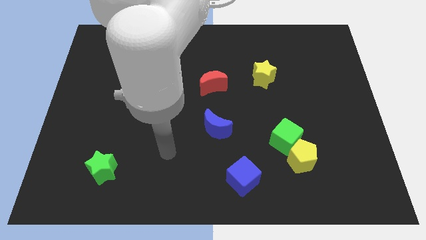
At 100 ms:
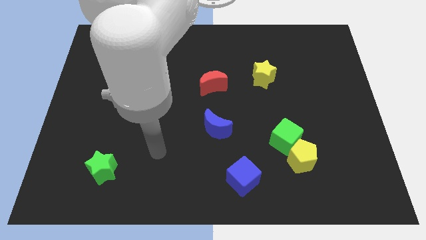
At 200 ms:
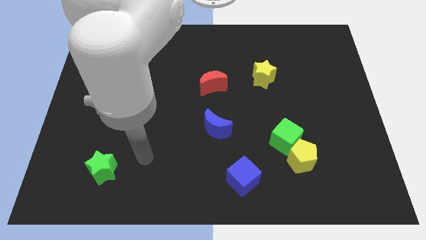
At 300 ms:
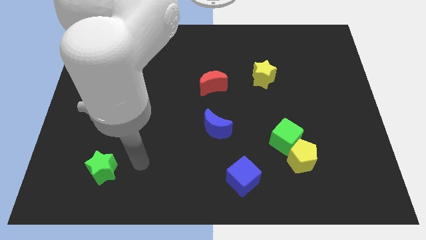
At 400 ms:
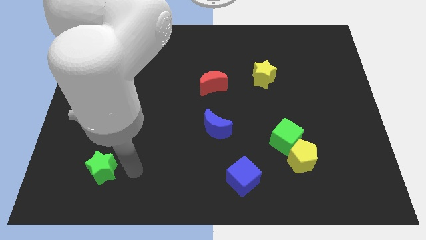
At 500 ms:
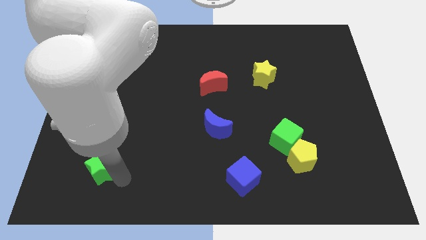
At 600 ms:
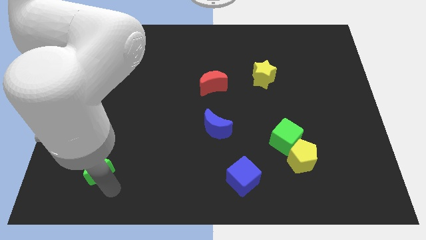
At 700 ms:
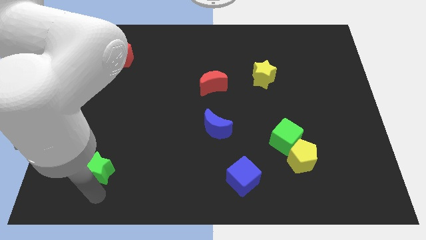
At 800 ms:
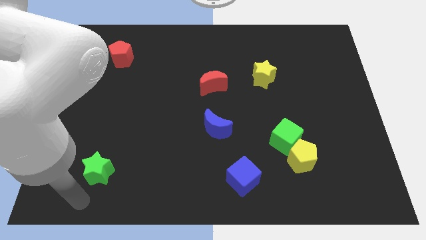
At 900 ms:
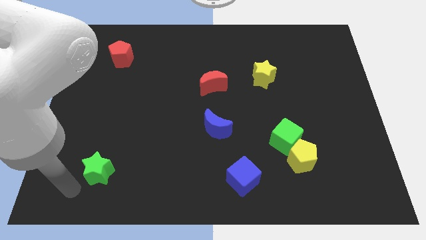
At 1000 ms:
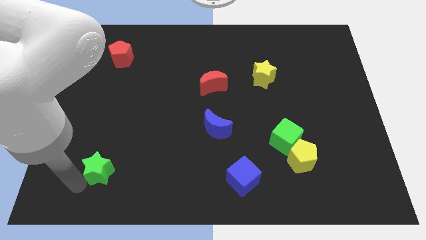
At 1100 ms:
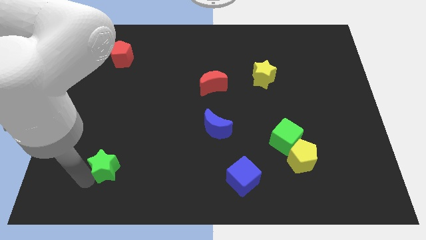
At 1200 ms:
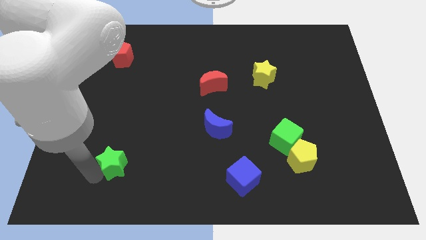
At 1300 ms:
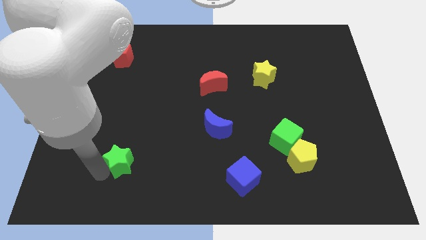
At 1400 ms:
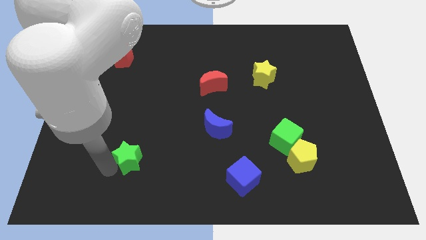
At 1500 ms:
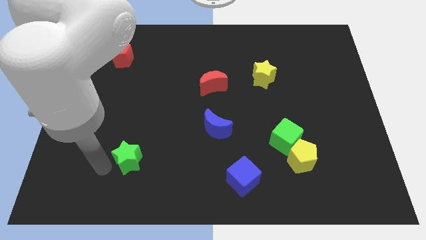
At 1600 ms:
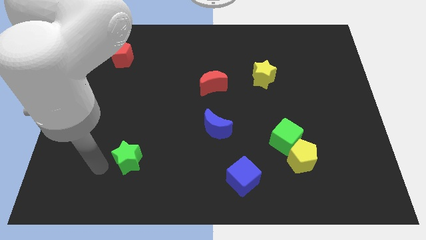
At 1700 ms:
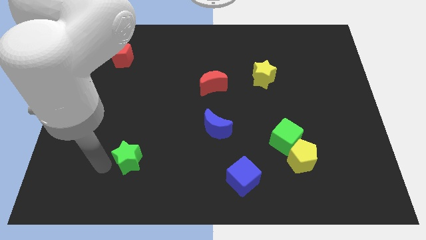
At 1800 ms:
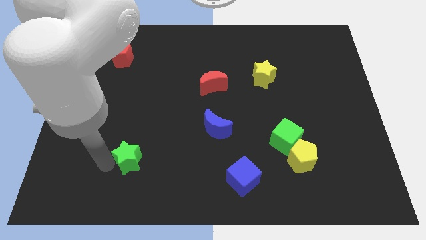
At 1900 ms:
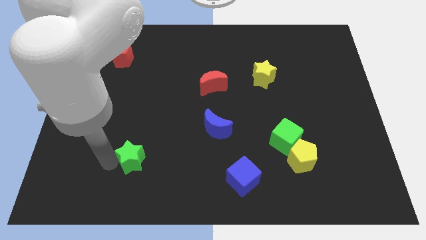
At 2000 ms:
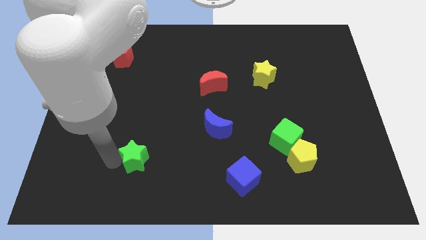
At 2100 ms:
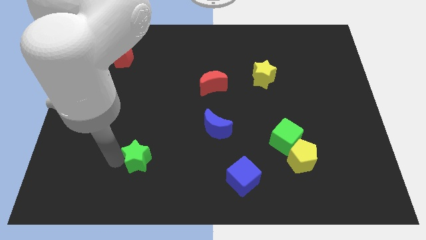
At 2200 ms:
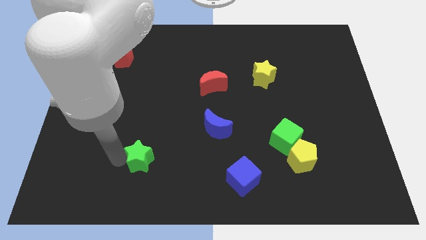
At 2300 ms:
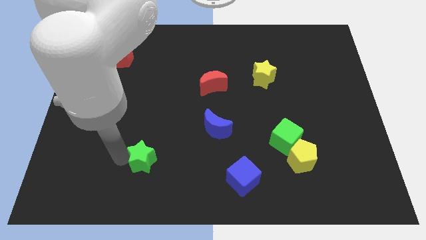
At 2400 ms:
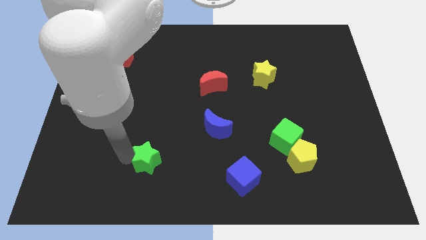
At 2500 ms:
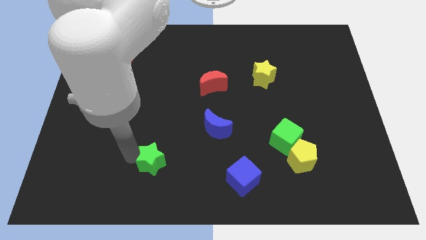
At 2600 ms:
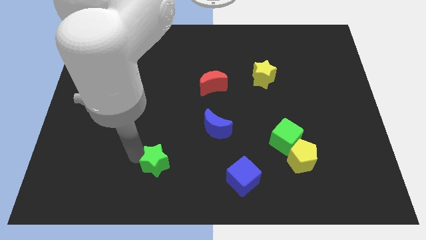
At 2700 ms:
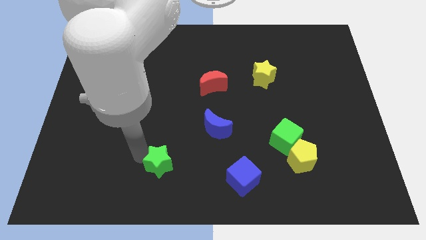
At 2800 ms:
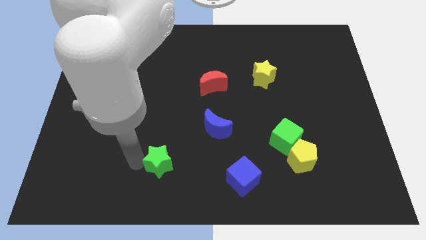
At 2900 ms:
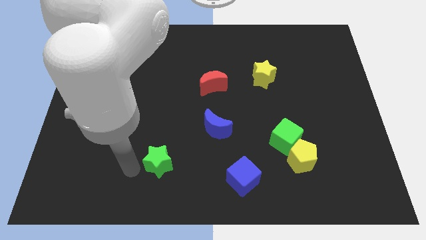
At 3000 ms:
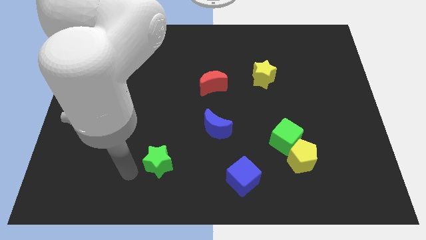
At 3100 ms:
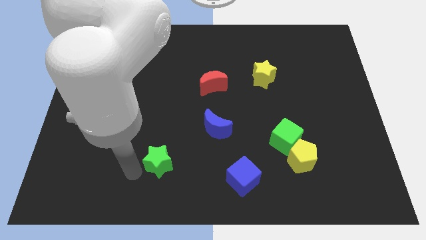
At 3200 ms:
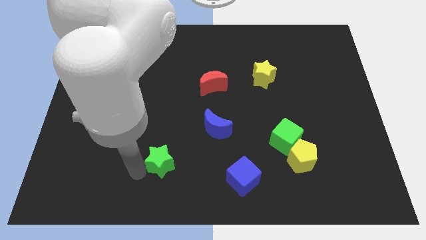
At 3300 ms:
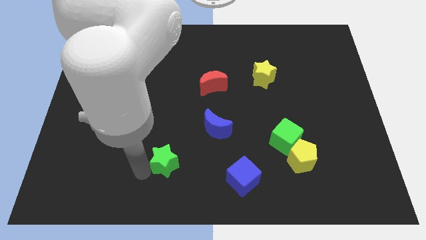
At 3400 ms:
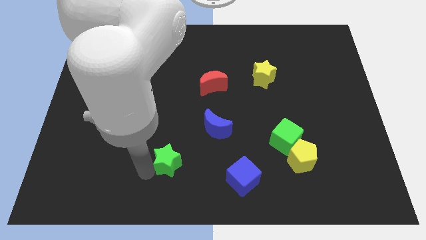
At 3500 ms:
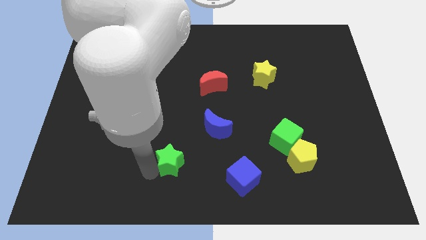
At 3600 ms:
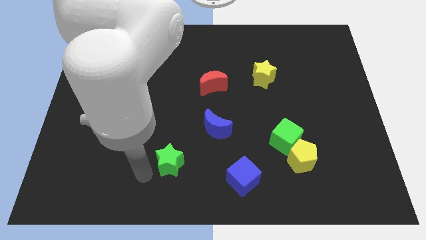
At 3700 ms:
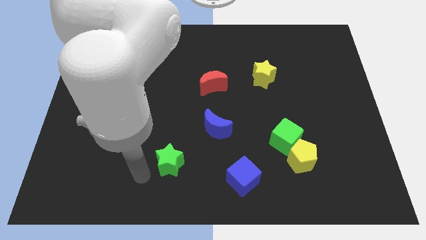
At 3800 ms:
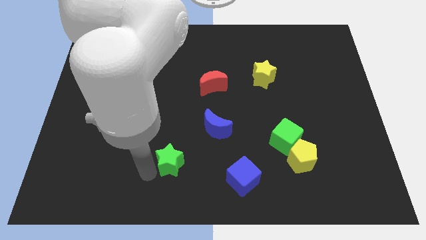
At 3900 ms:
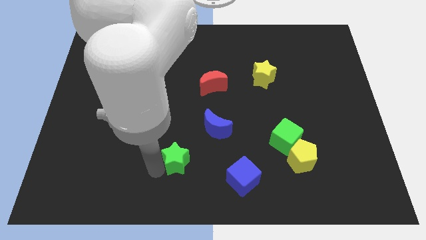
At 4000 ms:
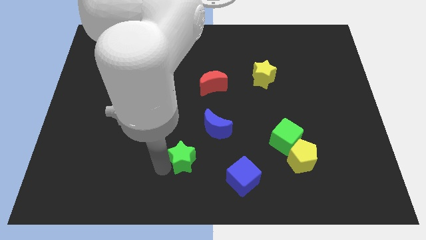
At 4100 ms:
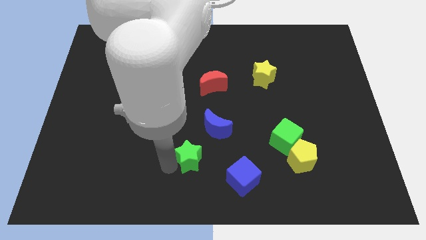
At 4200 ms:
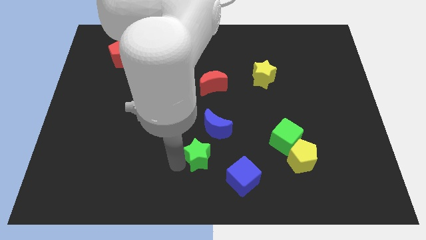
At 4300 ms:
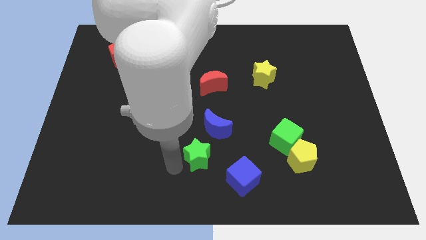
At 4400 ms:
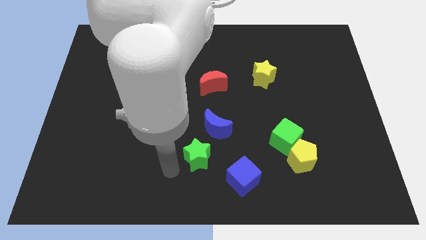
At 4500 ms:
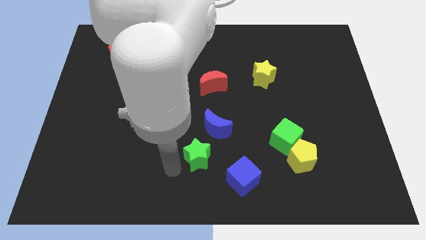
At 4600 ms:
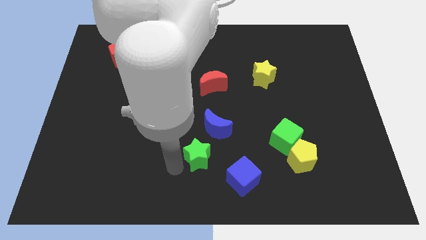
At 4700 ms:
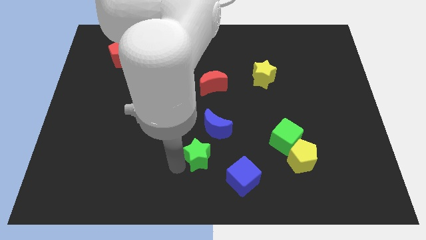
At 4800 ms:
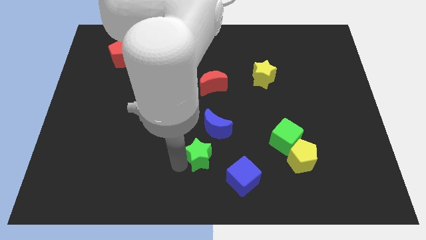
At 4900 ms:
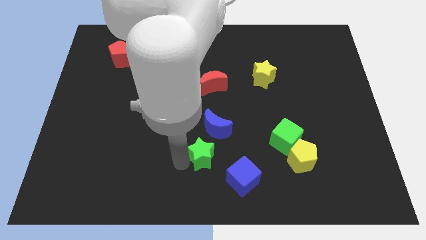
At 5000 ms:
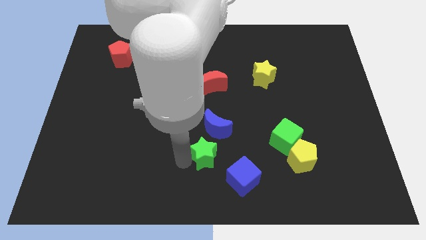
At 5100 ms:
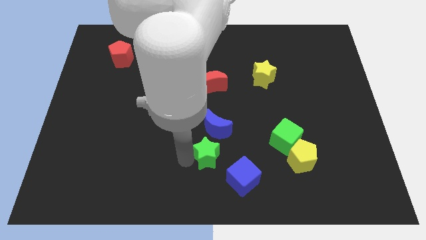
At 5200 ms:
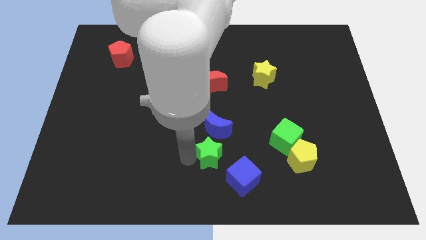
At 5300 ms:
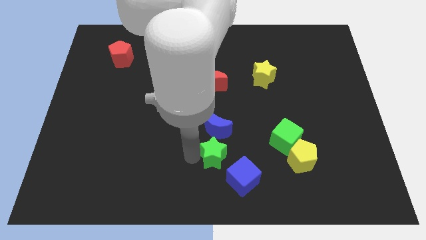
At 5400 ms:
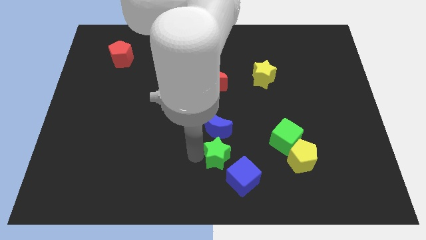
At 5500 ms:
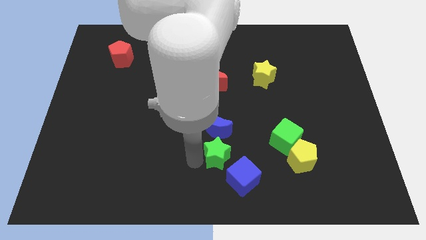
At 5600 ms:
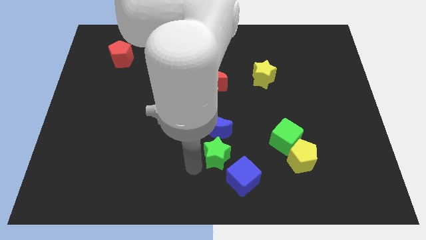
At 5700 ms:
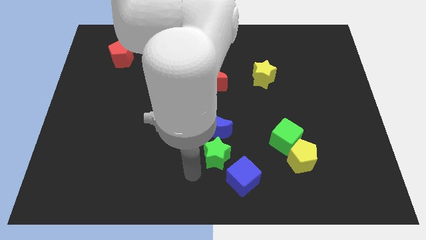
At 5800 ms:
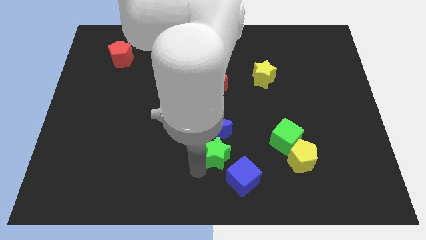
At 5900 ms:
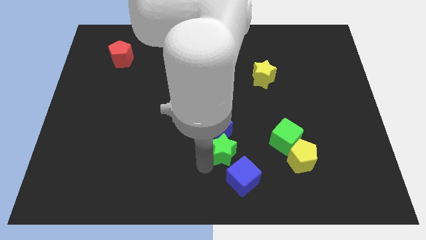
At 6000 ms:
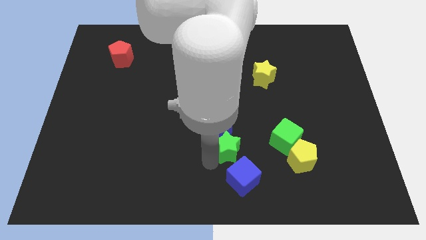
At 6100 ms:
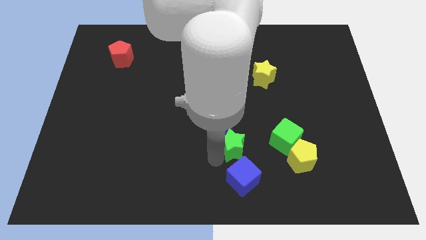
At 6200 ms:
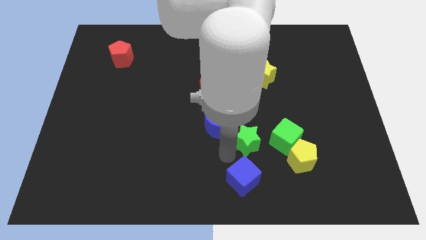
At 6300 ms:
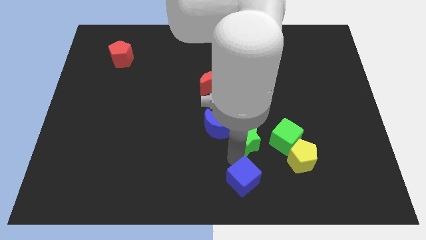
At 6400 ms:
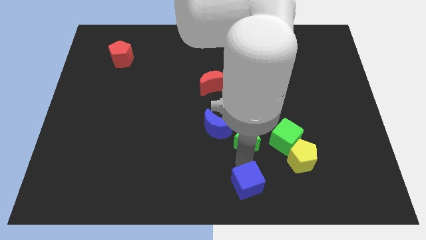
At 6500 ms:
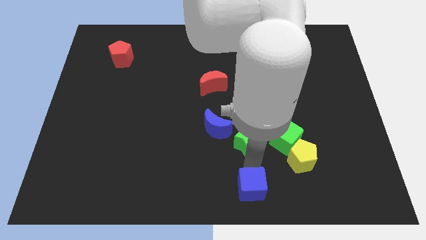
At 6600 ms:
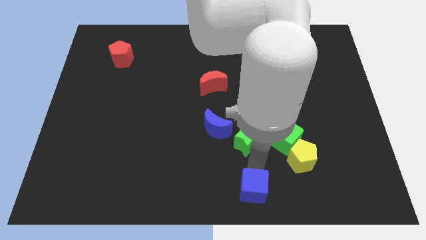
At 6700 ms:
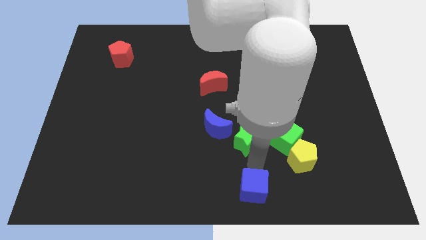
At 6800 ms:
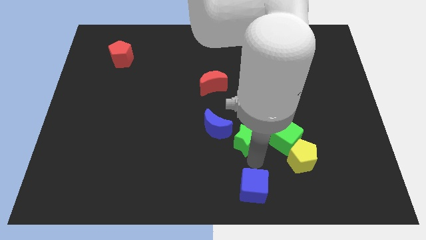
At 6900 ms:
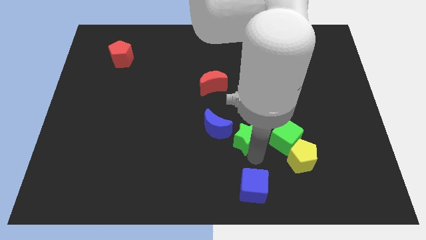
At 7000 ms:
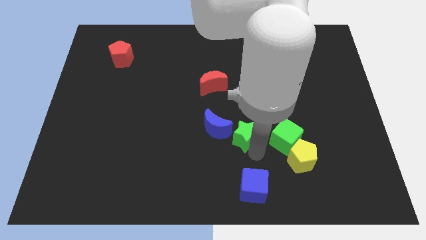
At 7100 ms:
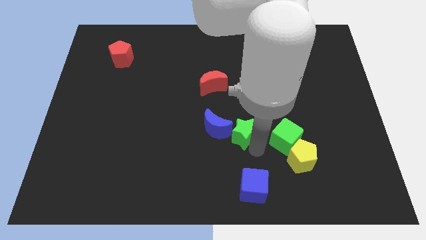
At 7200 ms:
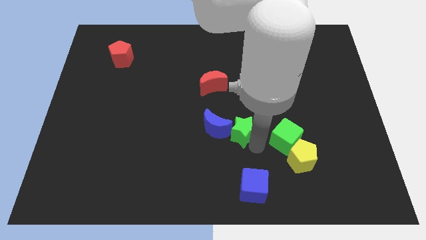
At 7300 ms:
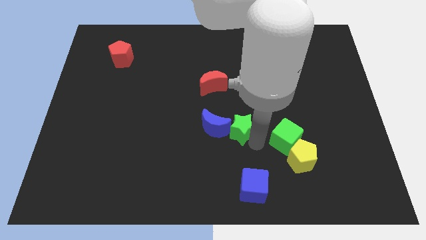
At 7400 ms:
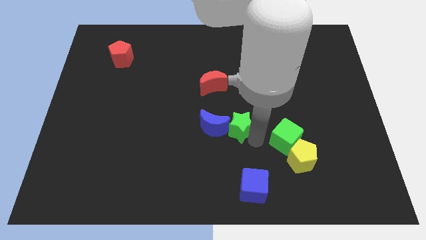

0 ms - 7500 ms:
push the green star diagonally up and to the right of the blue moon
